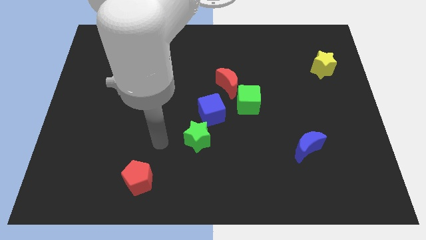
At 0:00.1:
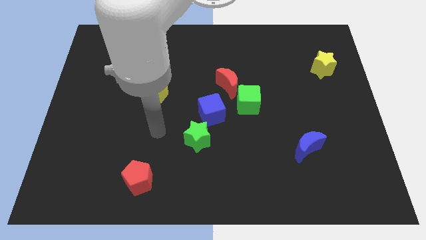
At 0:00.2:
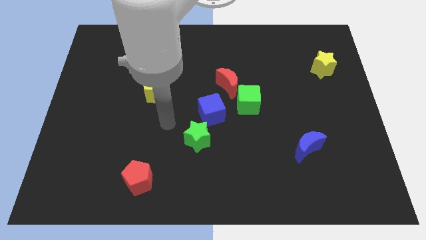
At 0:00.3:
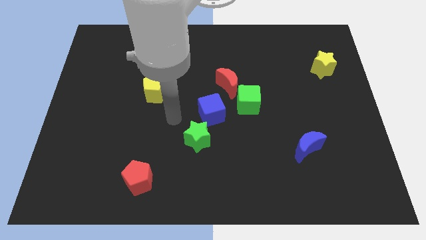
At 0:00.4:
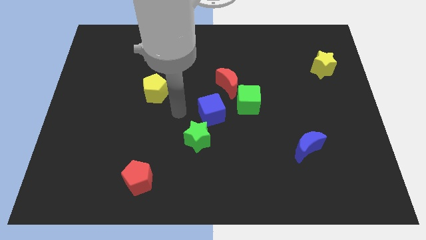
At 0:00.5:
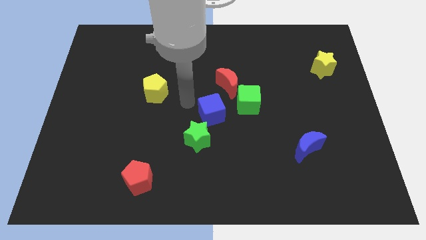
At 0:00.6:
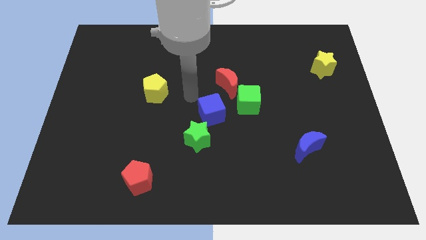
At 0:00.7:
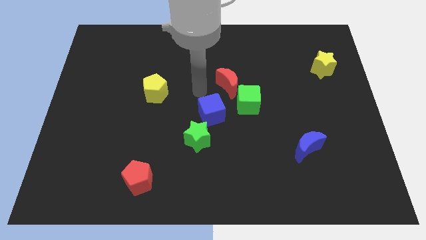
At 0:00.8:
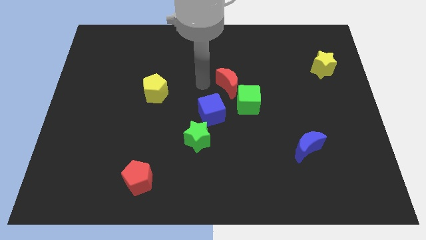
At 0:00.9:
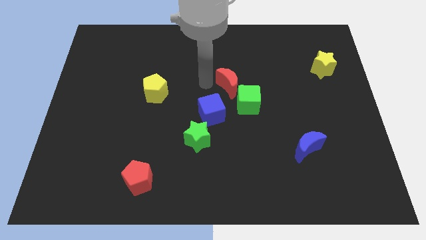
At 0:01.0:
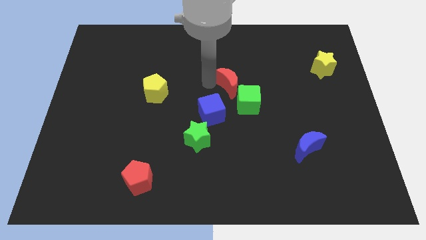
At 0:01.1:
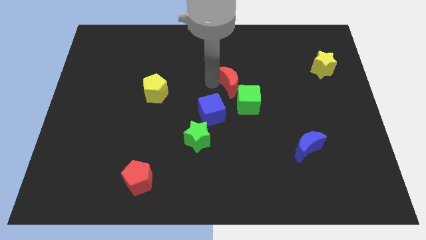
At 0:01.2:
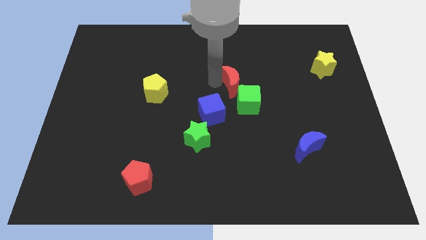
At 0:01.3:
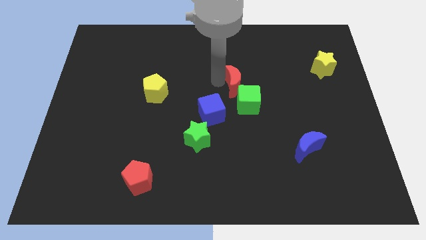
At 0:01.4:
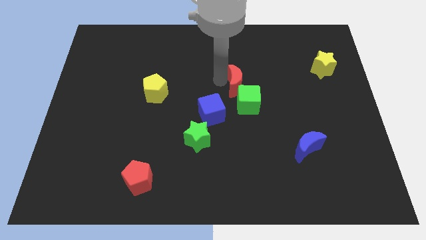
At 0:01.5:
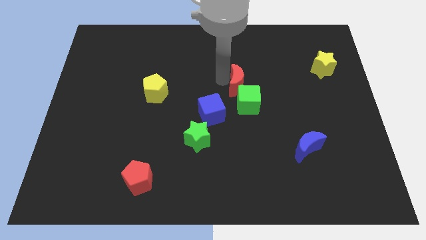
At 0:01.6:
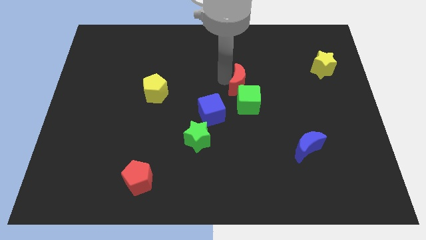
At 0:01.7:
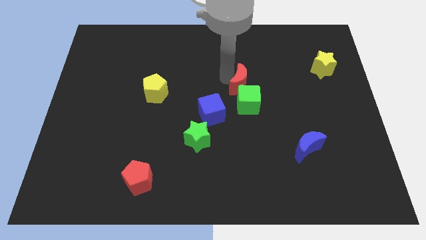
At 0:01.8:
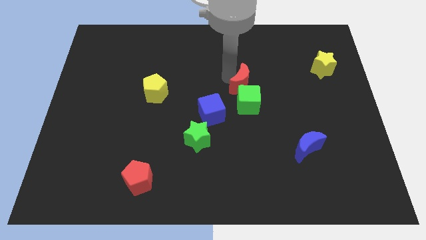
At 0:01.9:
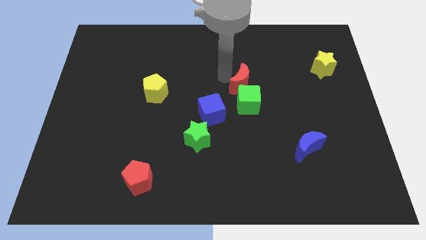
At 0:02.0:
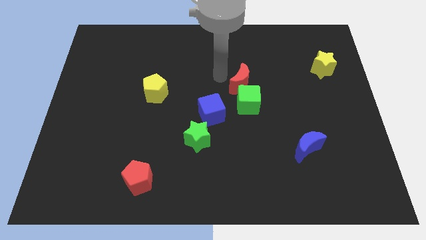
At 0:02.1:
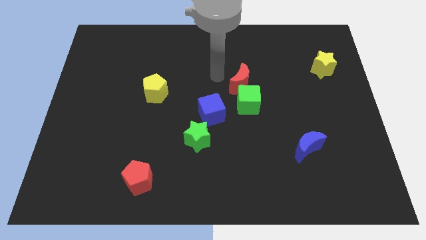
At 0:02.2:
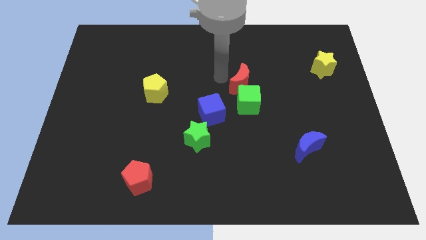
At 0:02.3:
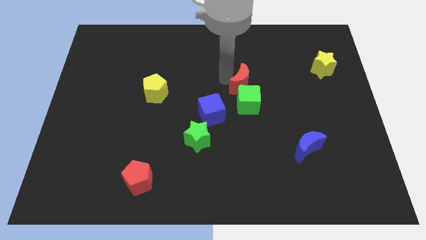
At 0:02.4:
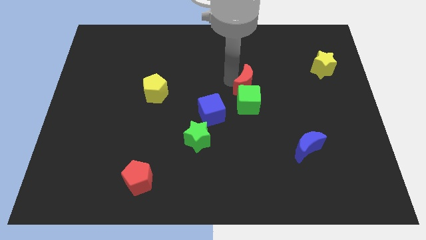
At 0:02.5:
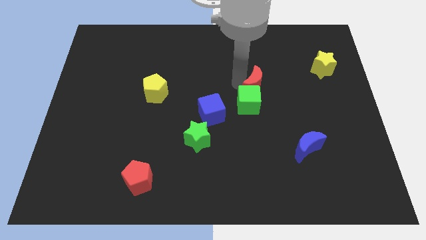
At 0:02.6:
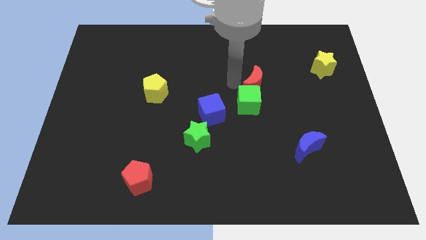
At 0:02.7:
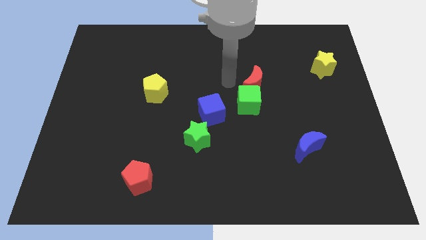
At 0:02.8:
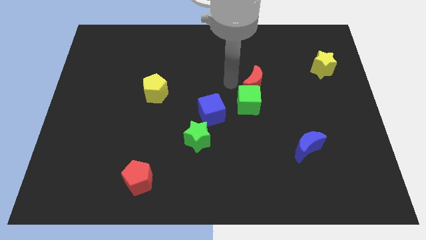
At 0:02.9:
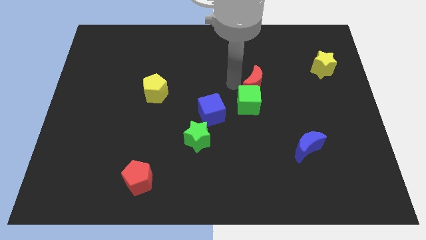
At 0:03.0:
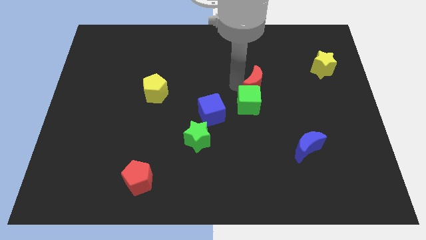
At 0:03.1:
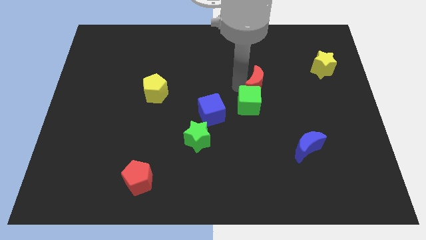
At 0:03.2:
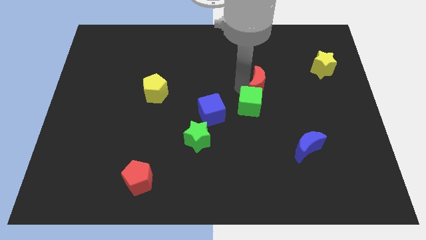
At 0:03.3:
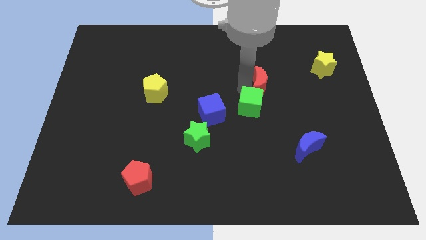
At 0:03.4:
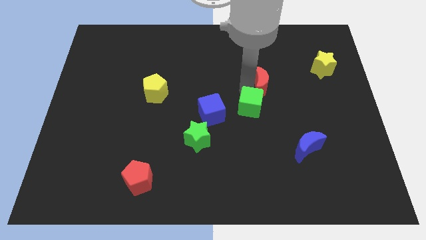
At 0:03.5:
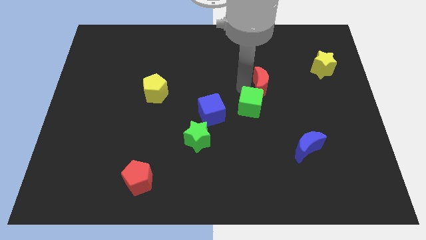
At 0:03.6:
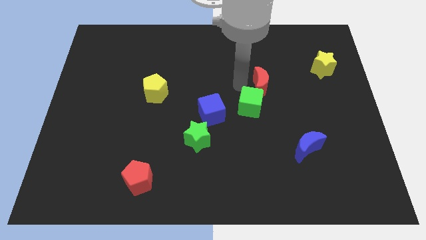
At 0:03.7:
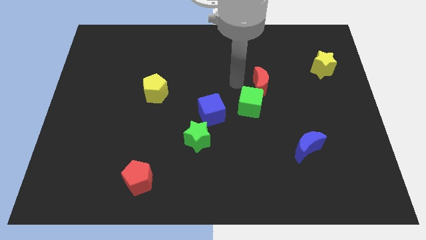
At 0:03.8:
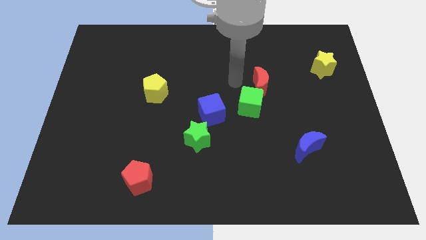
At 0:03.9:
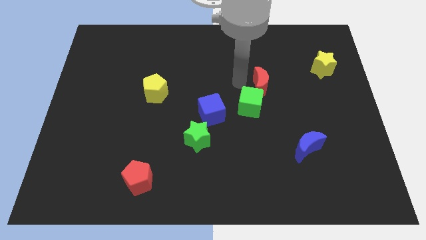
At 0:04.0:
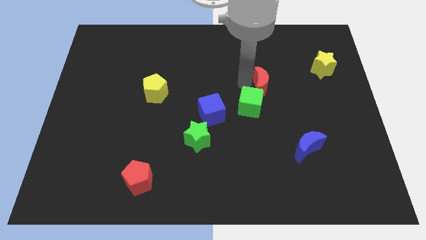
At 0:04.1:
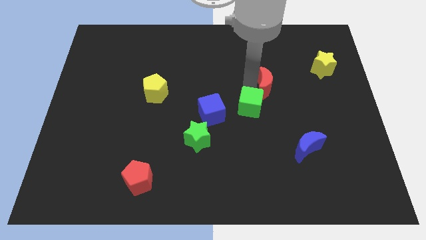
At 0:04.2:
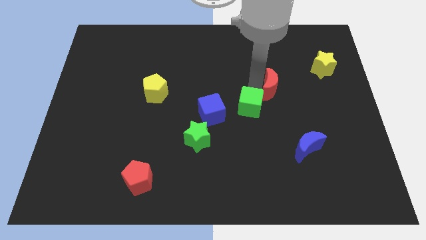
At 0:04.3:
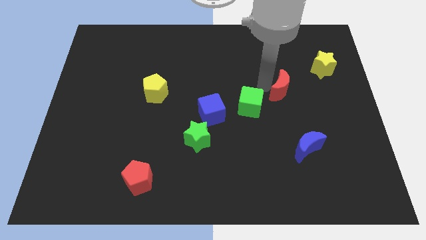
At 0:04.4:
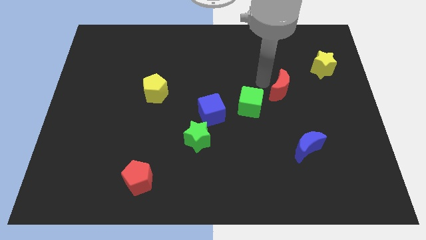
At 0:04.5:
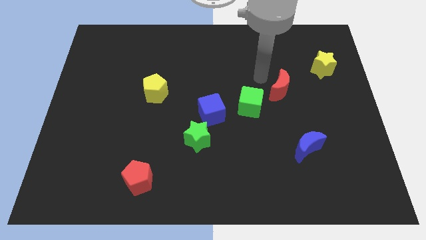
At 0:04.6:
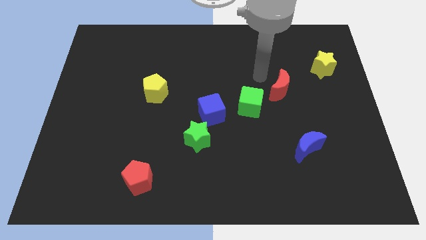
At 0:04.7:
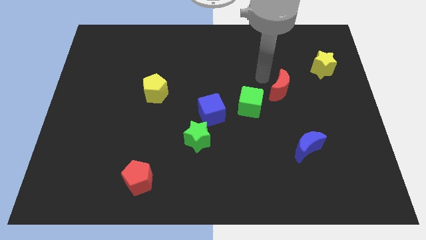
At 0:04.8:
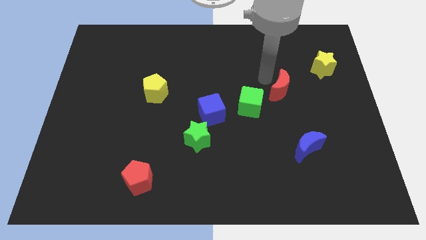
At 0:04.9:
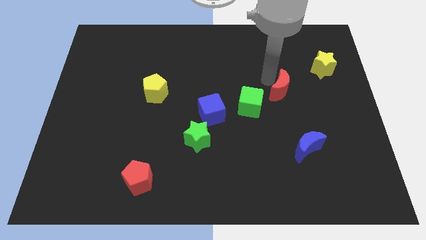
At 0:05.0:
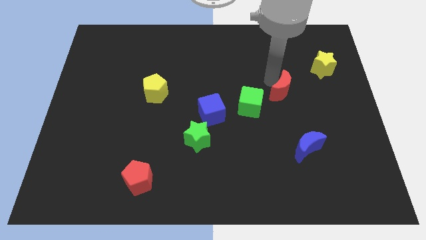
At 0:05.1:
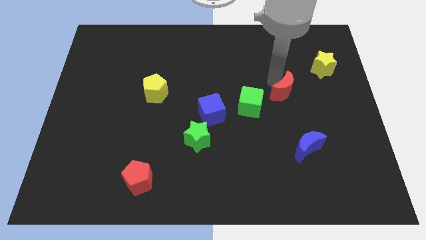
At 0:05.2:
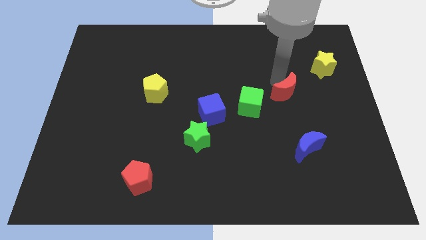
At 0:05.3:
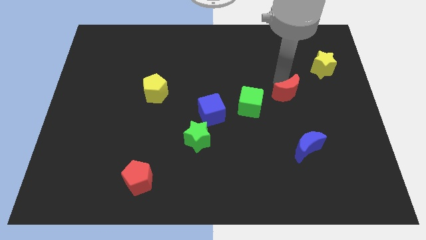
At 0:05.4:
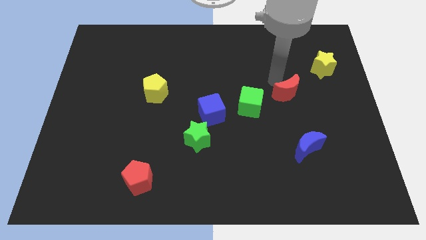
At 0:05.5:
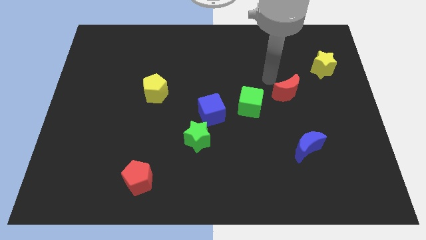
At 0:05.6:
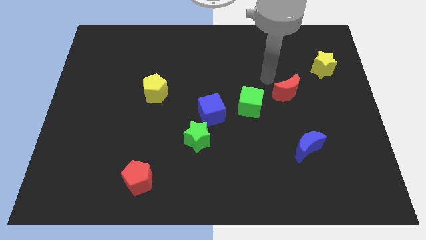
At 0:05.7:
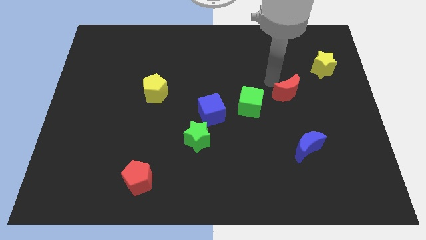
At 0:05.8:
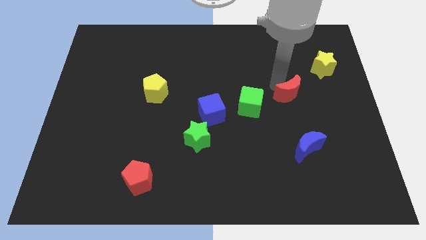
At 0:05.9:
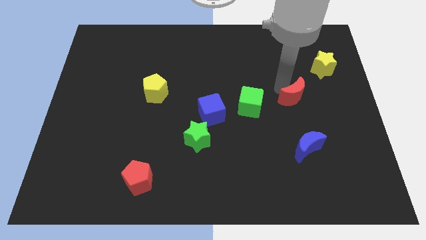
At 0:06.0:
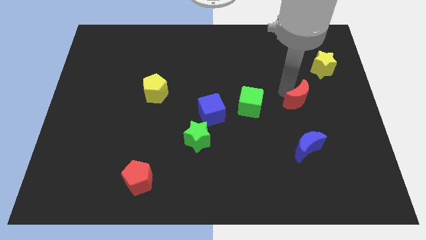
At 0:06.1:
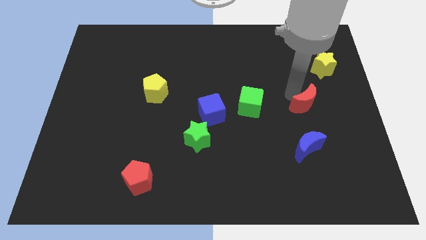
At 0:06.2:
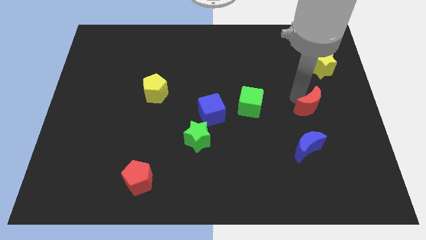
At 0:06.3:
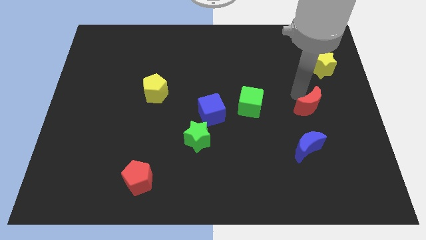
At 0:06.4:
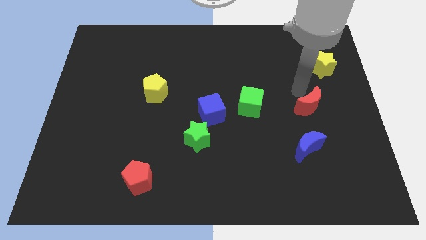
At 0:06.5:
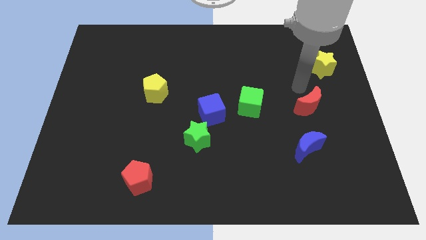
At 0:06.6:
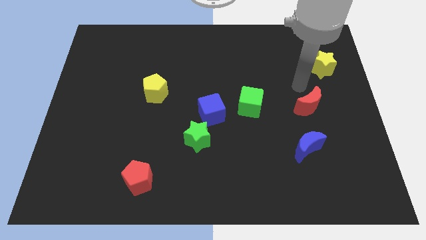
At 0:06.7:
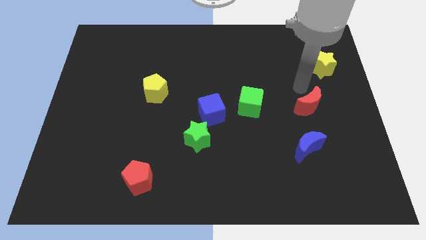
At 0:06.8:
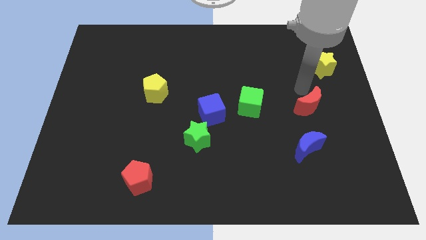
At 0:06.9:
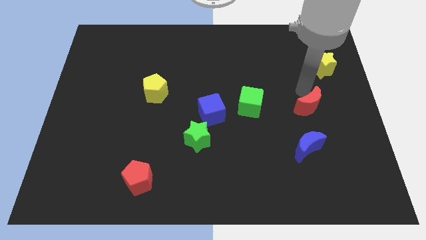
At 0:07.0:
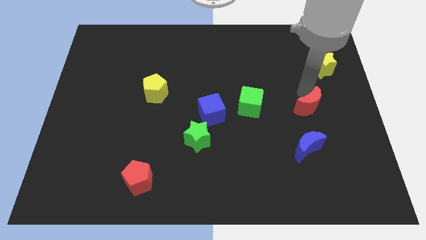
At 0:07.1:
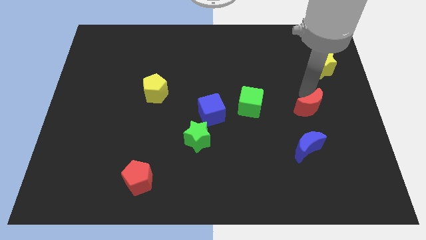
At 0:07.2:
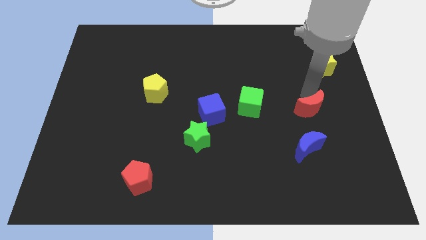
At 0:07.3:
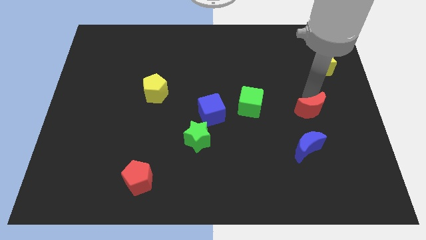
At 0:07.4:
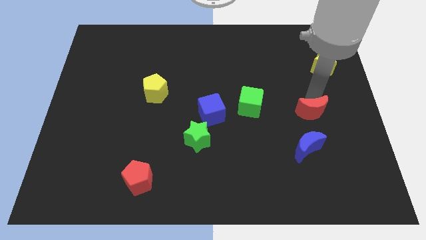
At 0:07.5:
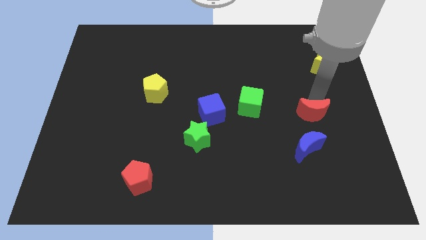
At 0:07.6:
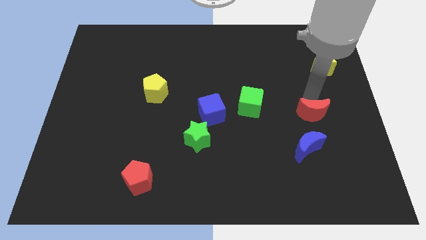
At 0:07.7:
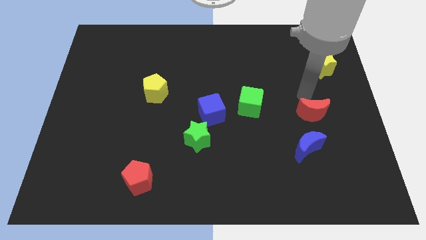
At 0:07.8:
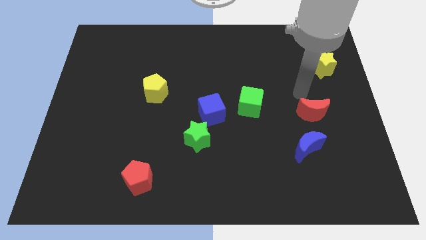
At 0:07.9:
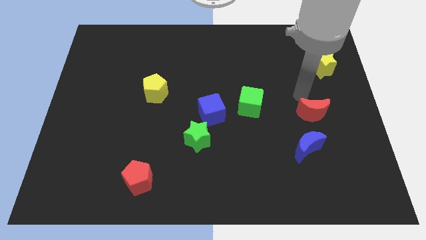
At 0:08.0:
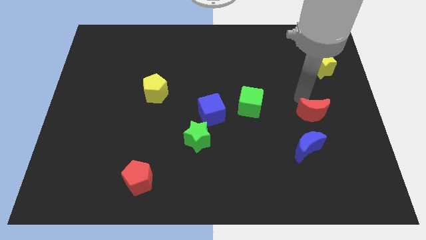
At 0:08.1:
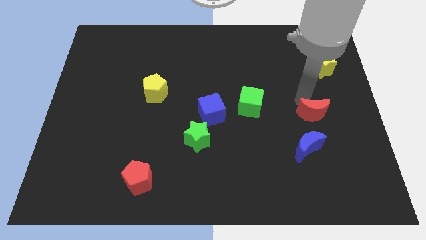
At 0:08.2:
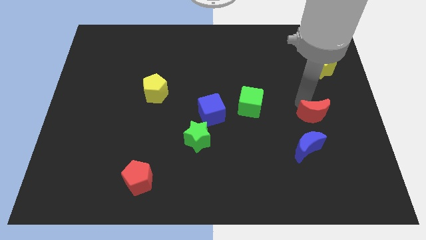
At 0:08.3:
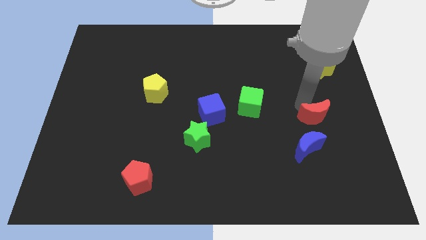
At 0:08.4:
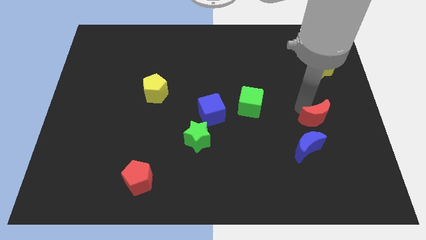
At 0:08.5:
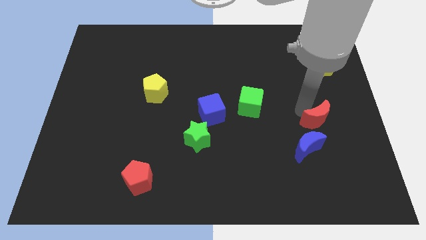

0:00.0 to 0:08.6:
move the red moon downwards and to the right

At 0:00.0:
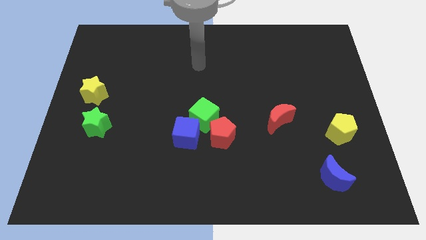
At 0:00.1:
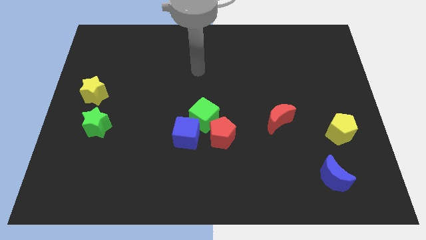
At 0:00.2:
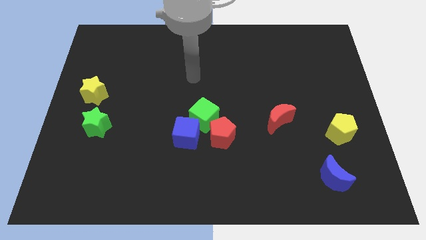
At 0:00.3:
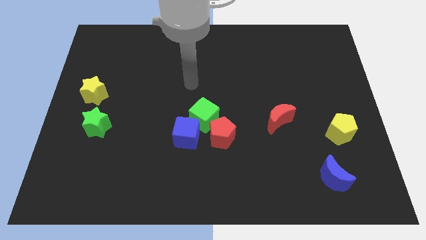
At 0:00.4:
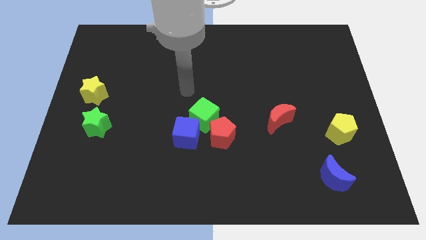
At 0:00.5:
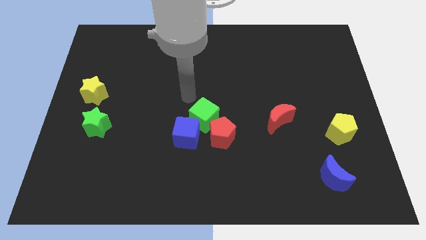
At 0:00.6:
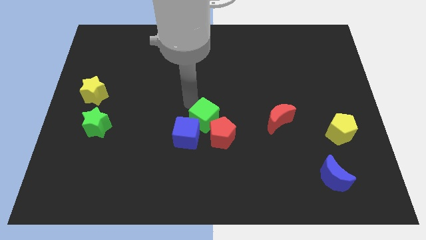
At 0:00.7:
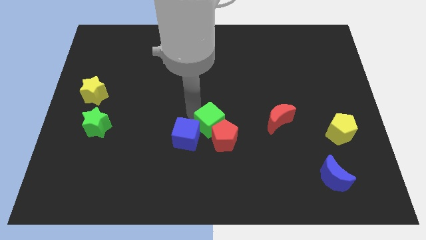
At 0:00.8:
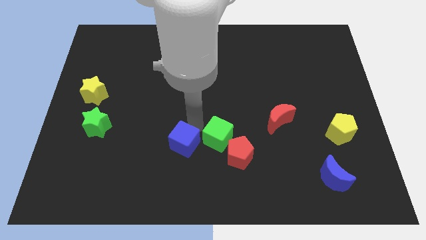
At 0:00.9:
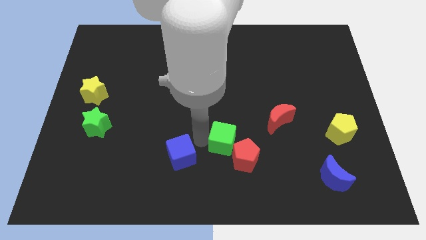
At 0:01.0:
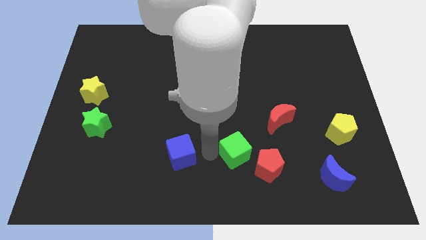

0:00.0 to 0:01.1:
slide the red pentagon somewhat right
